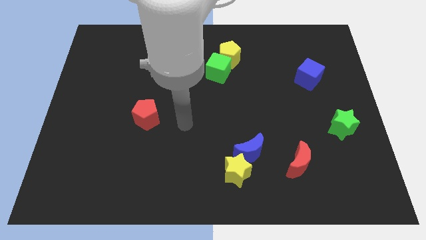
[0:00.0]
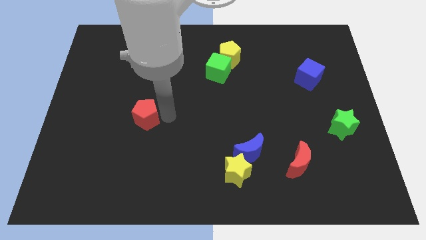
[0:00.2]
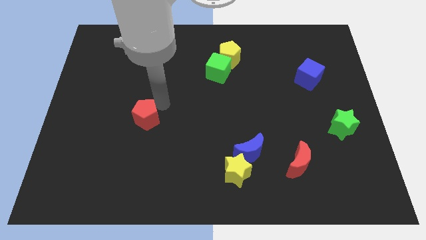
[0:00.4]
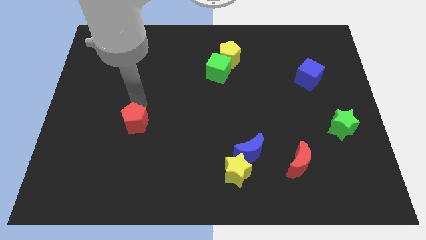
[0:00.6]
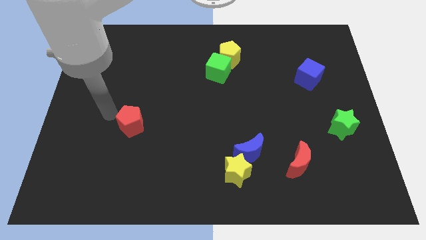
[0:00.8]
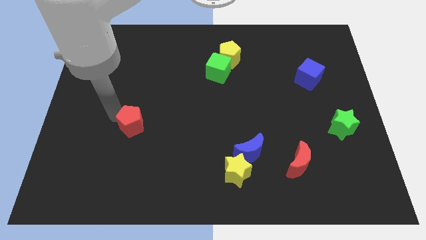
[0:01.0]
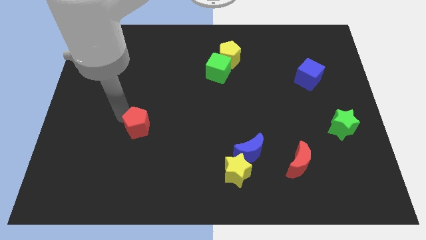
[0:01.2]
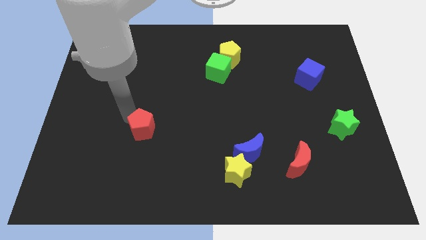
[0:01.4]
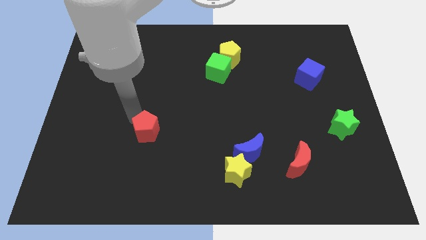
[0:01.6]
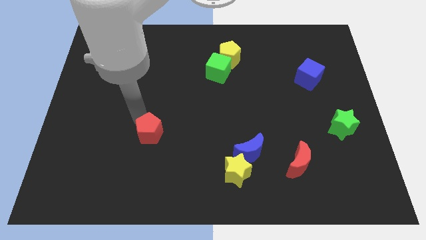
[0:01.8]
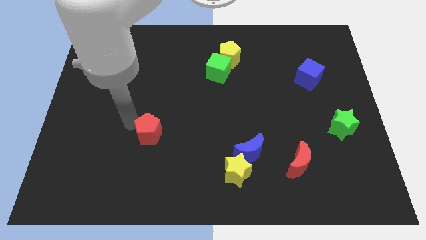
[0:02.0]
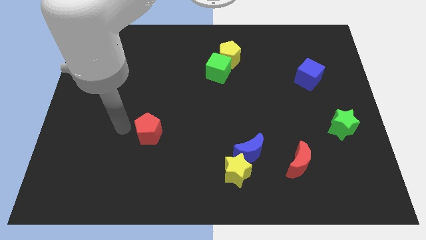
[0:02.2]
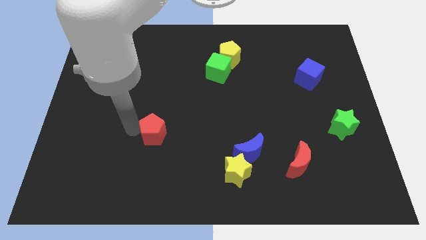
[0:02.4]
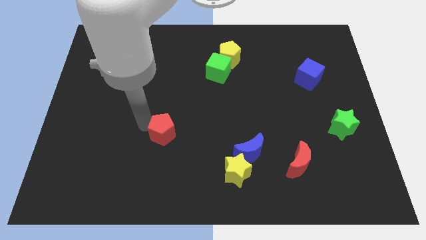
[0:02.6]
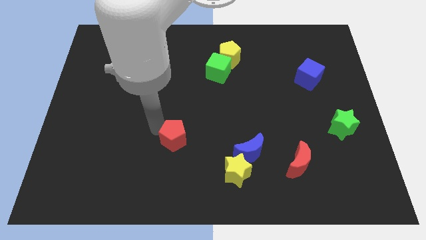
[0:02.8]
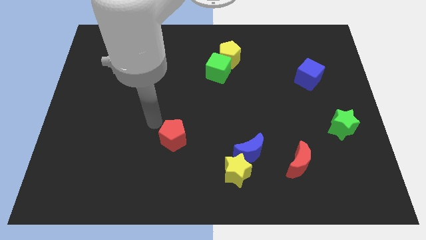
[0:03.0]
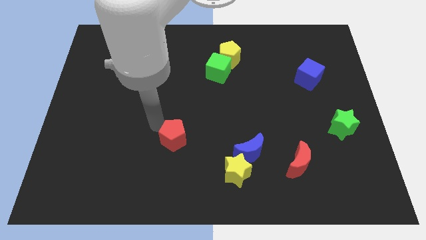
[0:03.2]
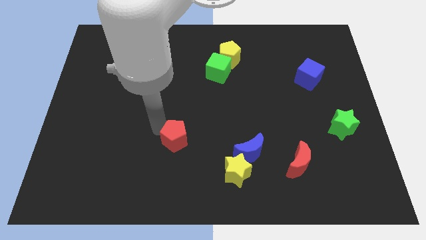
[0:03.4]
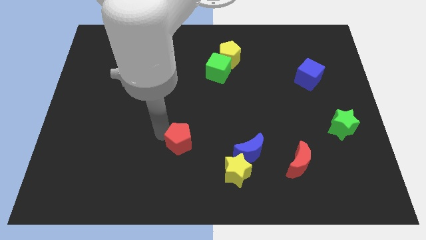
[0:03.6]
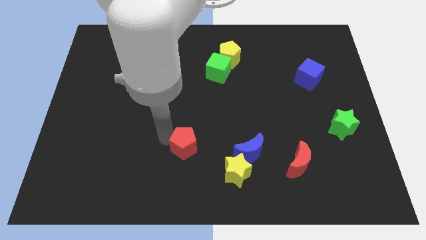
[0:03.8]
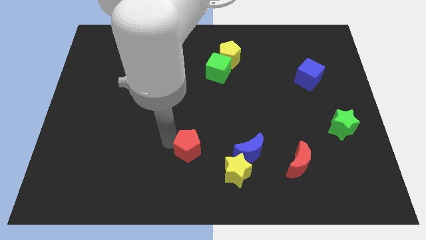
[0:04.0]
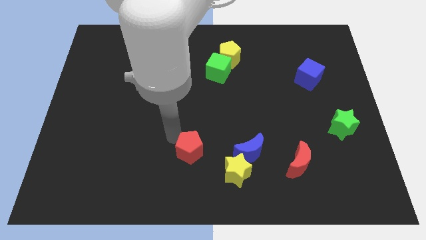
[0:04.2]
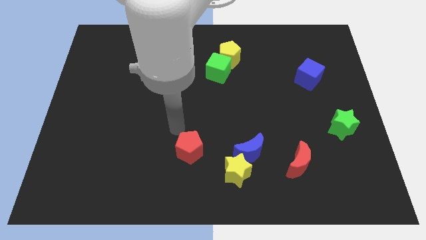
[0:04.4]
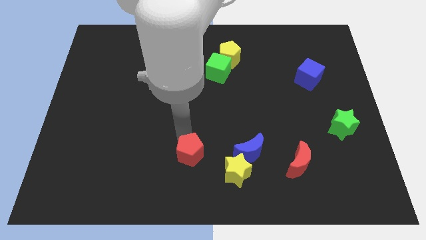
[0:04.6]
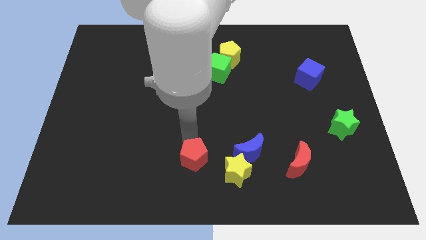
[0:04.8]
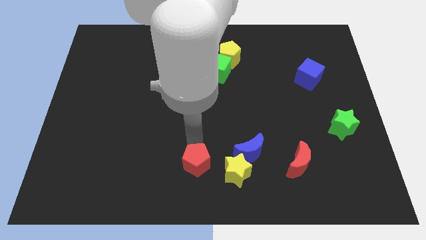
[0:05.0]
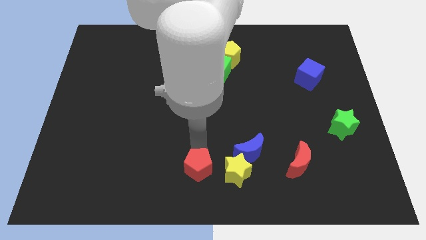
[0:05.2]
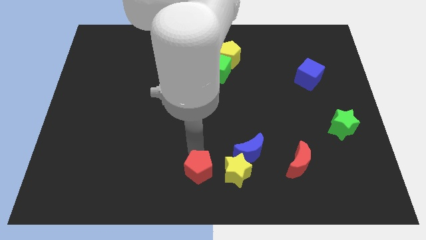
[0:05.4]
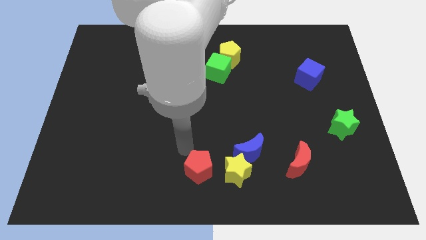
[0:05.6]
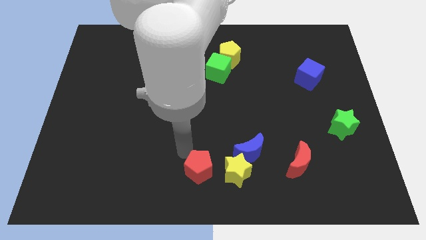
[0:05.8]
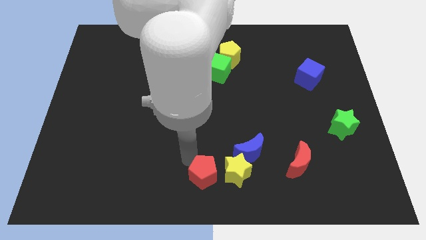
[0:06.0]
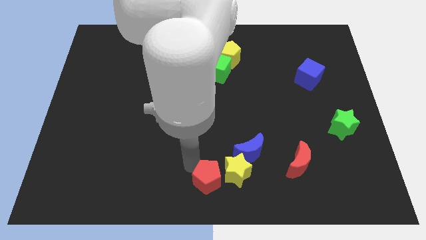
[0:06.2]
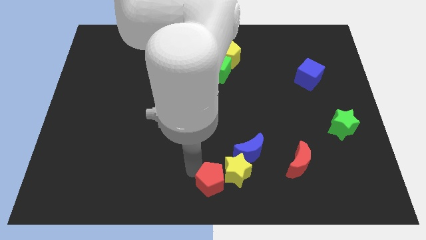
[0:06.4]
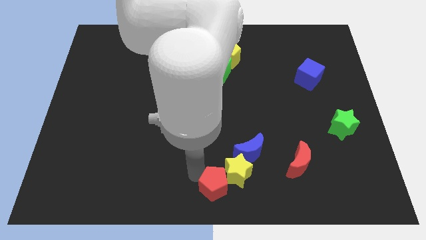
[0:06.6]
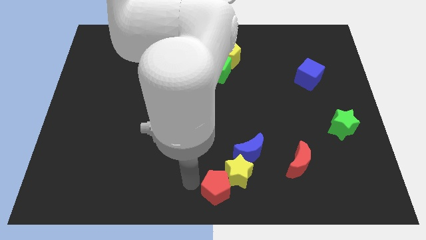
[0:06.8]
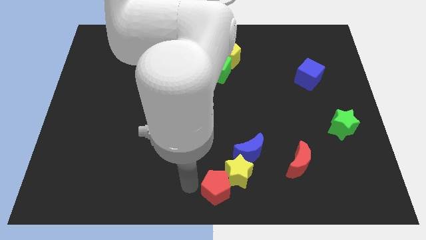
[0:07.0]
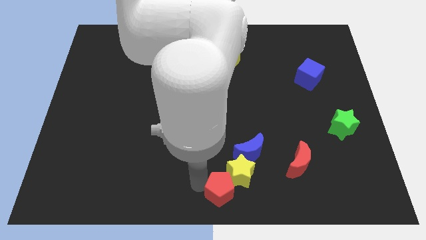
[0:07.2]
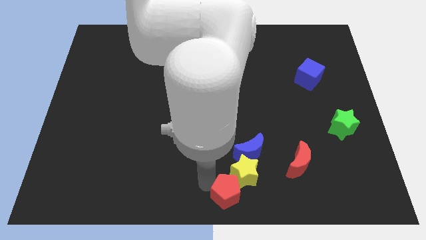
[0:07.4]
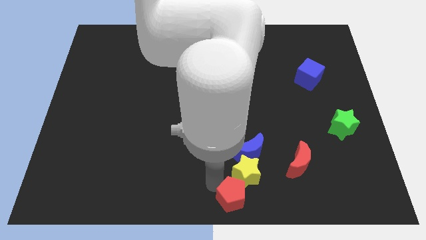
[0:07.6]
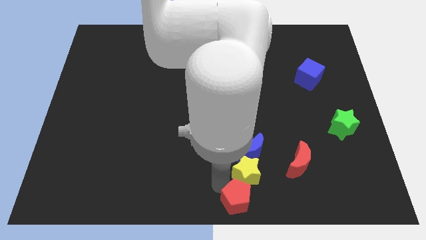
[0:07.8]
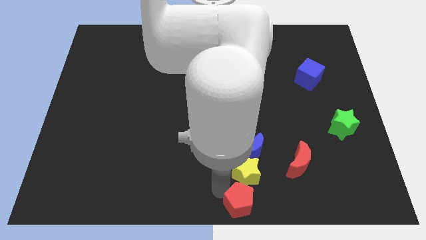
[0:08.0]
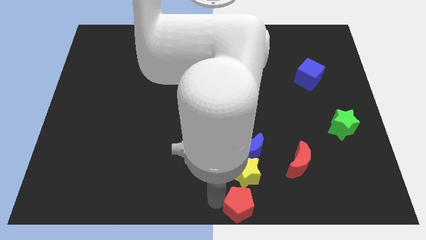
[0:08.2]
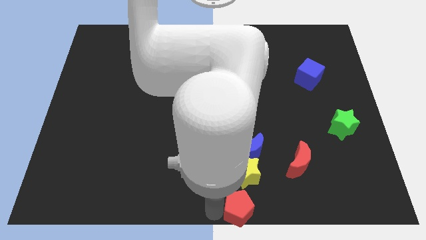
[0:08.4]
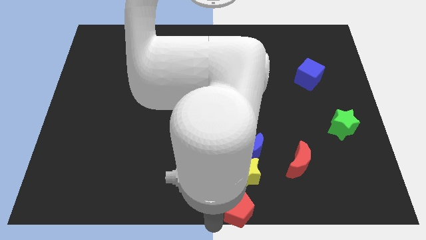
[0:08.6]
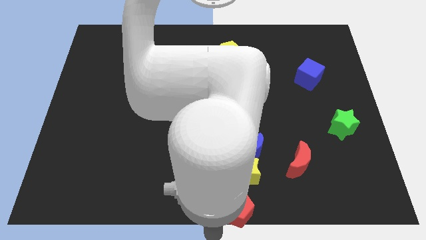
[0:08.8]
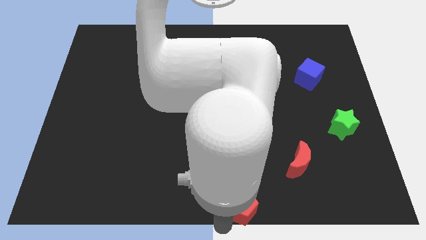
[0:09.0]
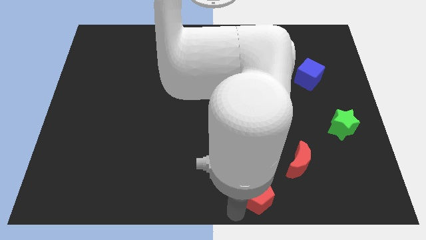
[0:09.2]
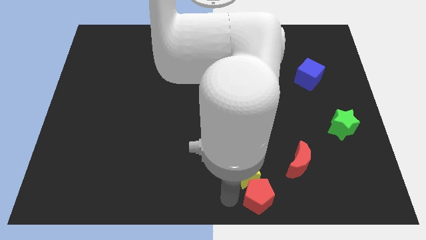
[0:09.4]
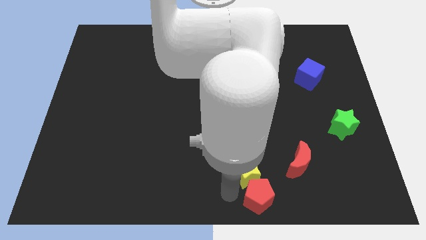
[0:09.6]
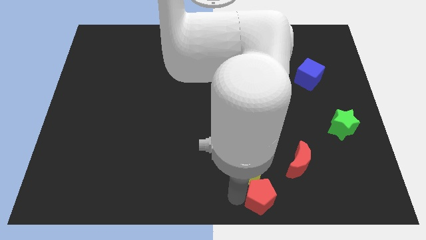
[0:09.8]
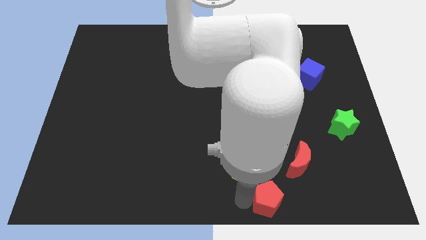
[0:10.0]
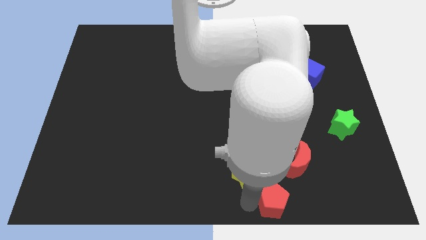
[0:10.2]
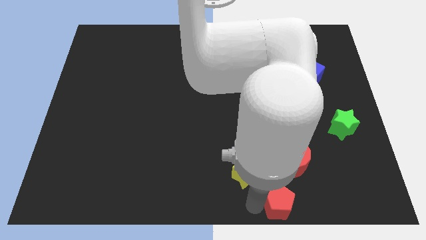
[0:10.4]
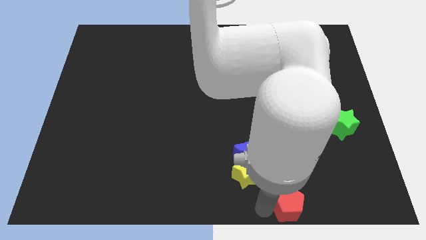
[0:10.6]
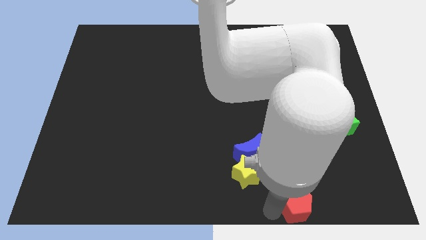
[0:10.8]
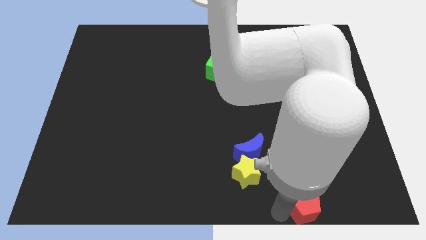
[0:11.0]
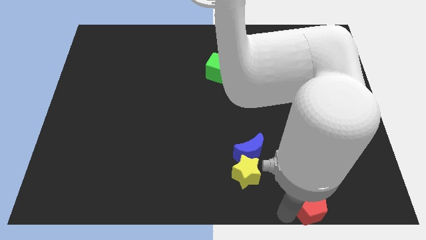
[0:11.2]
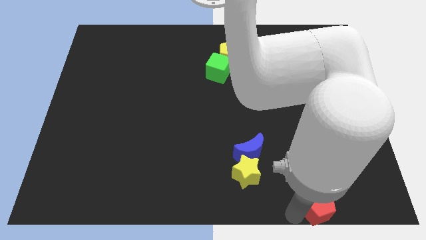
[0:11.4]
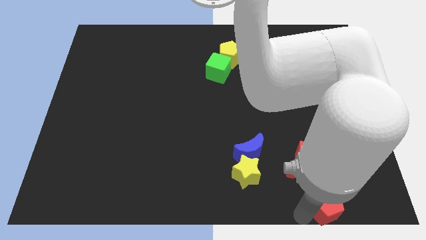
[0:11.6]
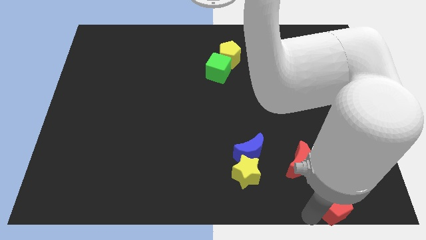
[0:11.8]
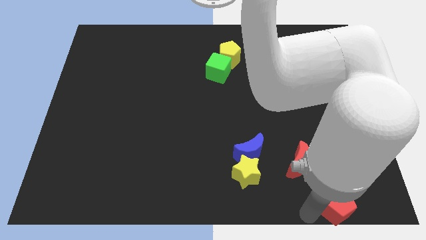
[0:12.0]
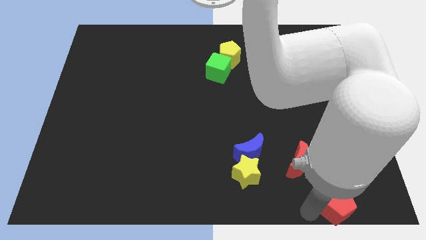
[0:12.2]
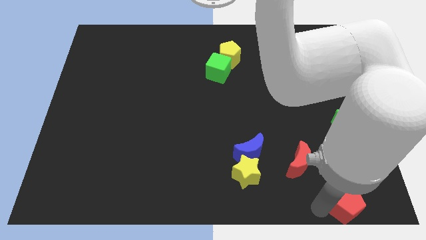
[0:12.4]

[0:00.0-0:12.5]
push the red pentagon to the bottom right of the board

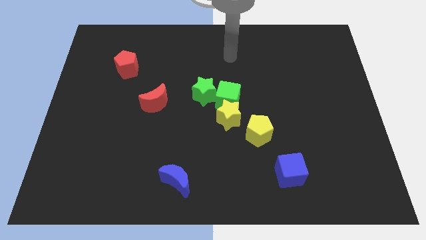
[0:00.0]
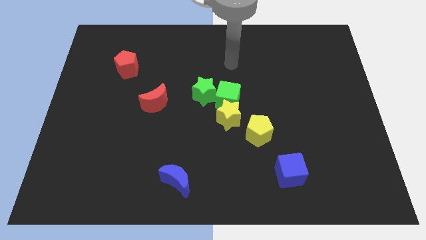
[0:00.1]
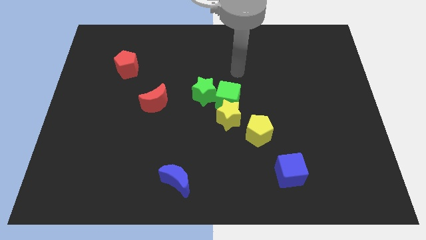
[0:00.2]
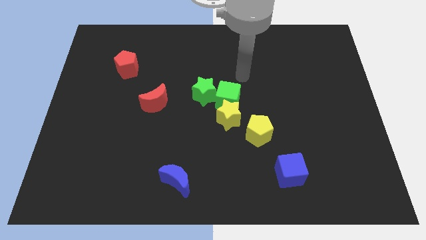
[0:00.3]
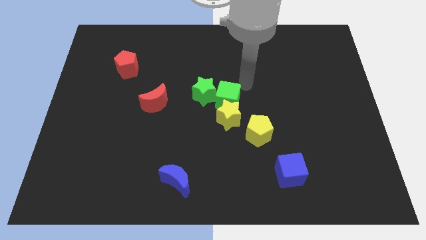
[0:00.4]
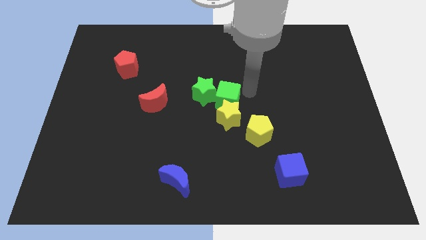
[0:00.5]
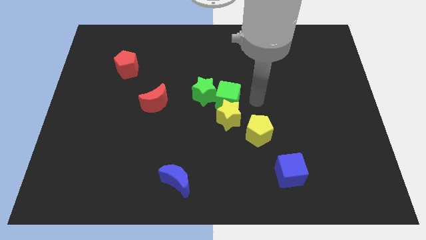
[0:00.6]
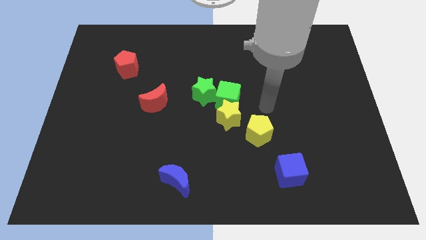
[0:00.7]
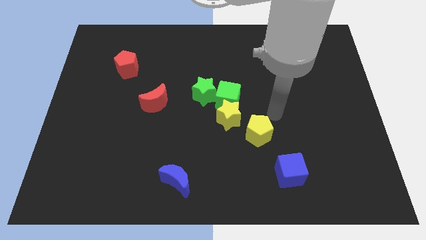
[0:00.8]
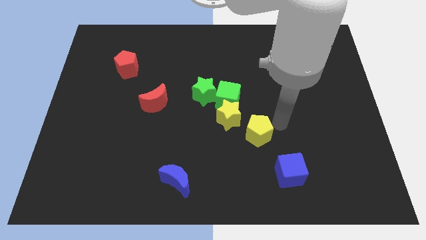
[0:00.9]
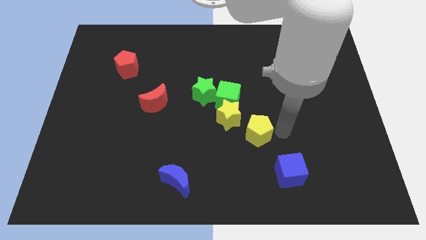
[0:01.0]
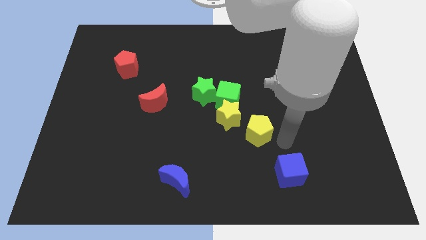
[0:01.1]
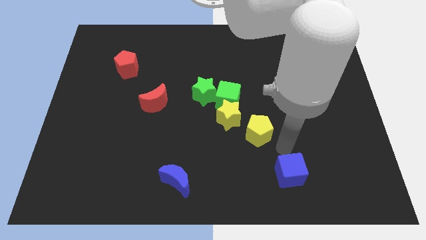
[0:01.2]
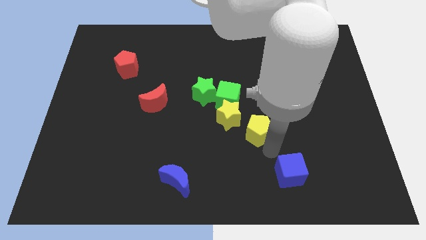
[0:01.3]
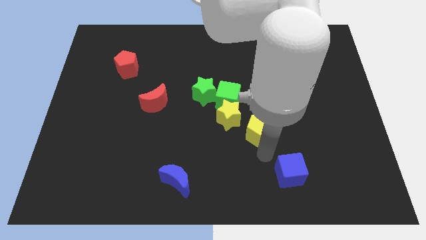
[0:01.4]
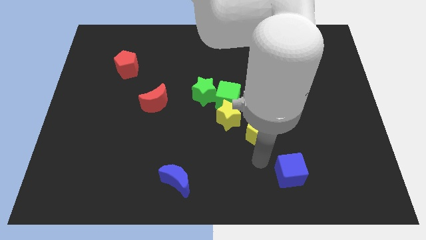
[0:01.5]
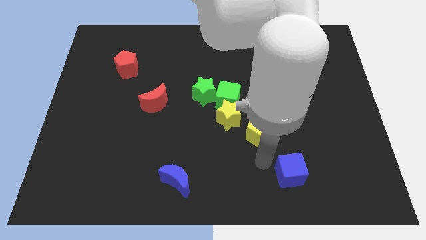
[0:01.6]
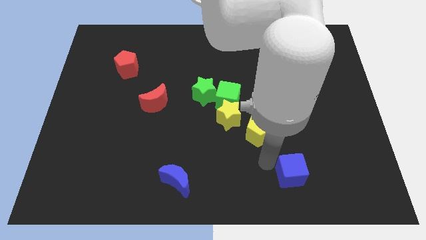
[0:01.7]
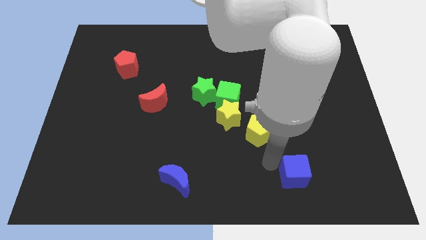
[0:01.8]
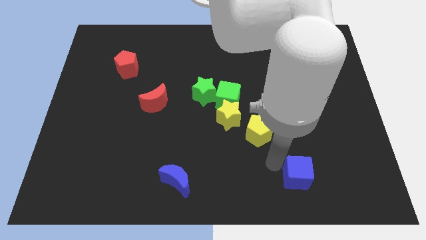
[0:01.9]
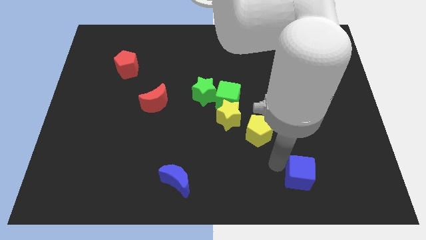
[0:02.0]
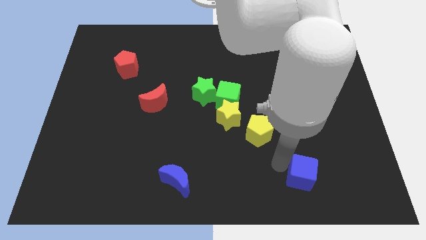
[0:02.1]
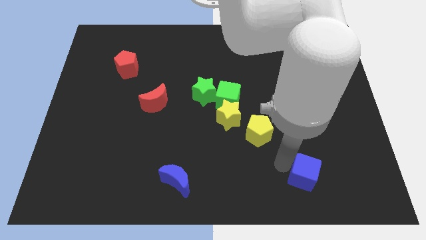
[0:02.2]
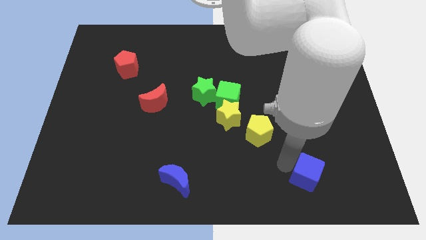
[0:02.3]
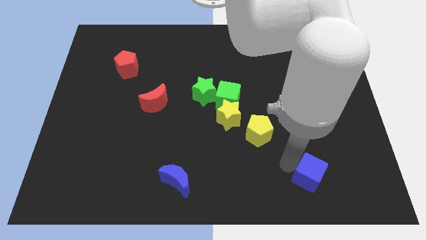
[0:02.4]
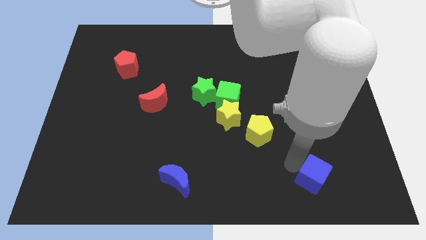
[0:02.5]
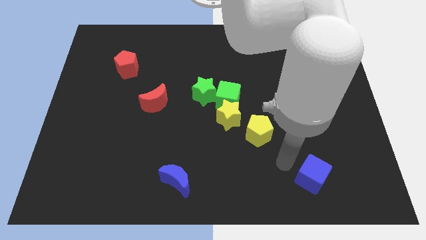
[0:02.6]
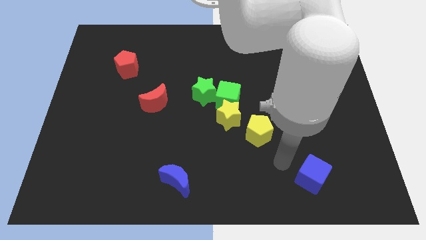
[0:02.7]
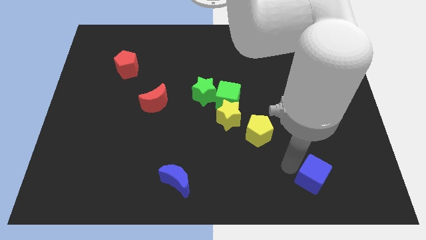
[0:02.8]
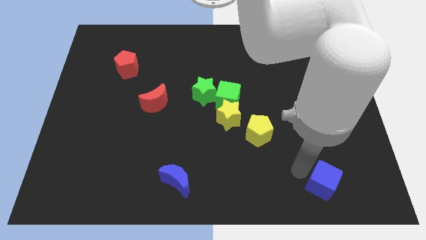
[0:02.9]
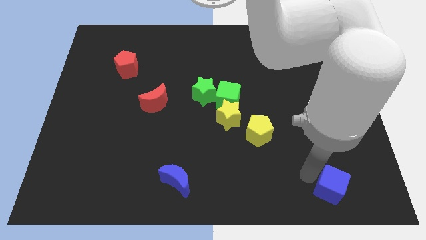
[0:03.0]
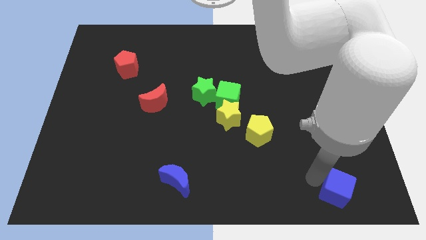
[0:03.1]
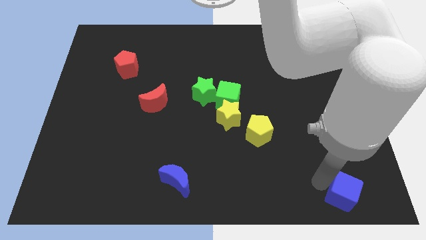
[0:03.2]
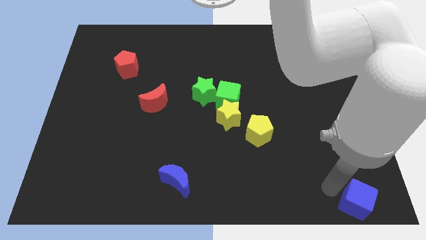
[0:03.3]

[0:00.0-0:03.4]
move the blue cube to the lower right corner
